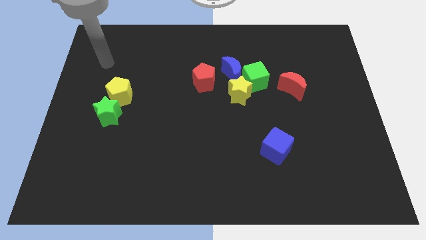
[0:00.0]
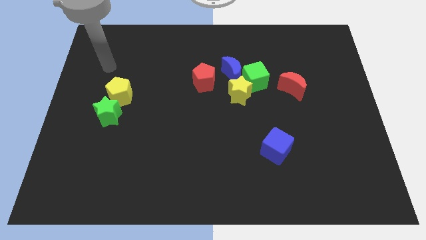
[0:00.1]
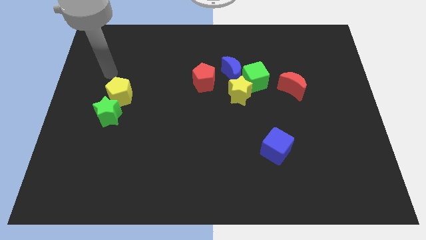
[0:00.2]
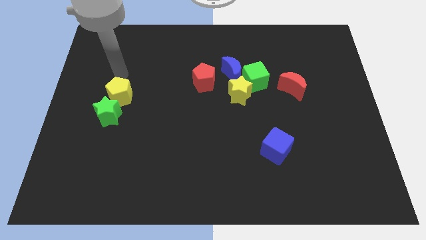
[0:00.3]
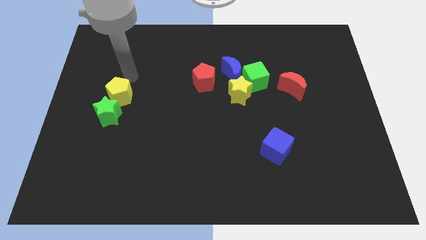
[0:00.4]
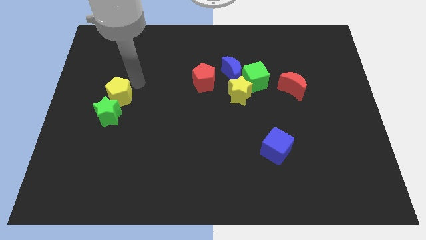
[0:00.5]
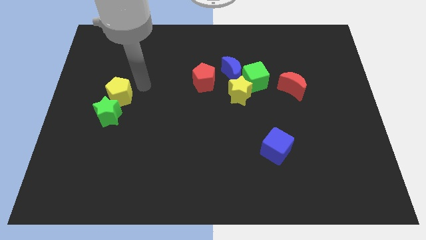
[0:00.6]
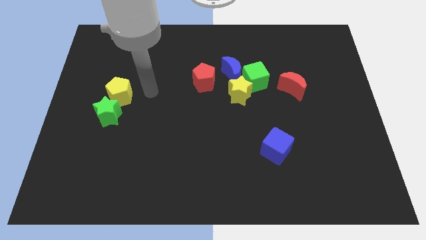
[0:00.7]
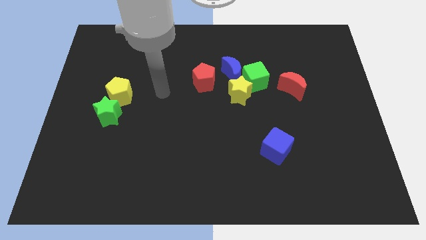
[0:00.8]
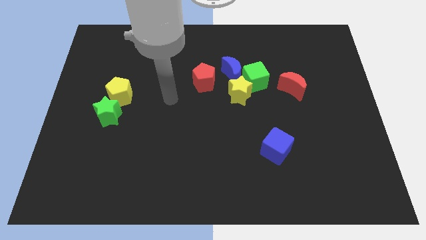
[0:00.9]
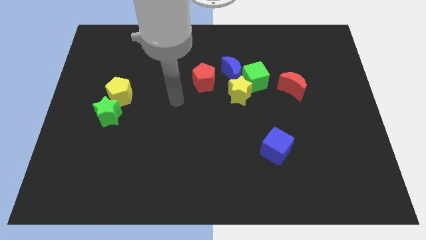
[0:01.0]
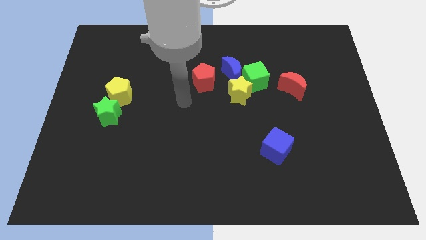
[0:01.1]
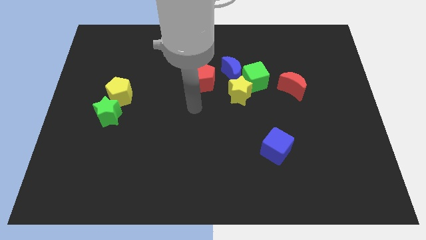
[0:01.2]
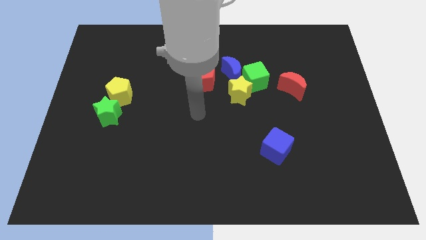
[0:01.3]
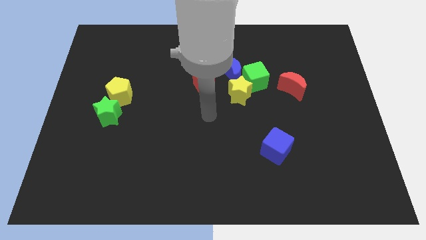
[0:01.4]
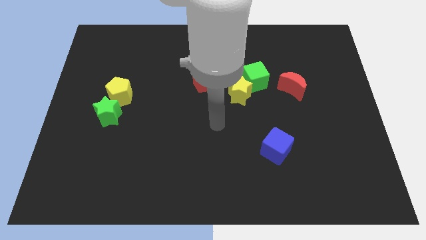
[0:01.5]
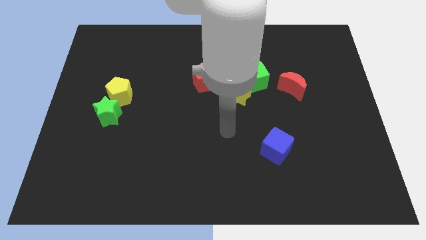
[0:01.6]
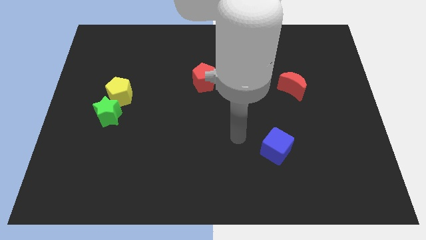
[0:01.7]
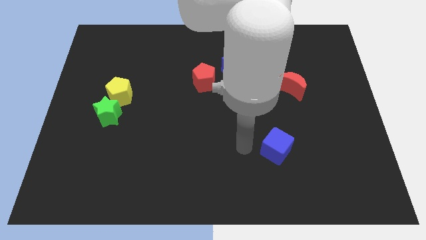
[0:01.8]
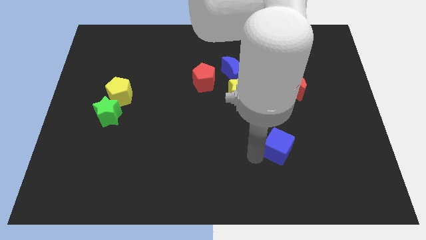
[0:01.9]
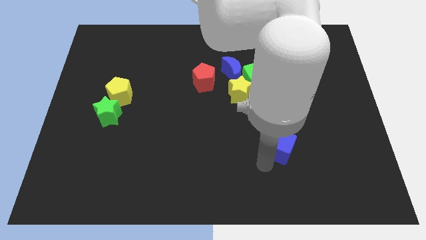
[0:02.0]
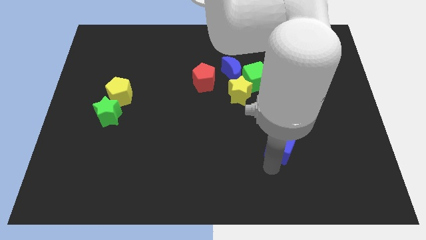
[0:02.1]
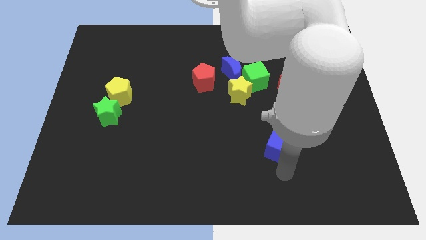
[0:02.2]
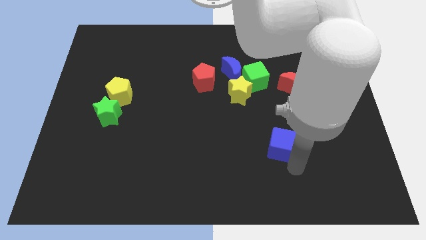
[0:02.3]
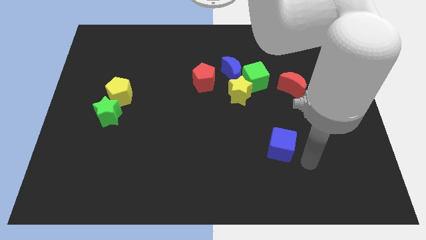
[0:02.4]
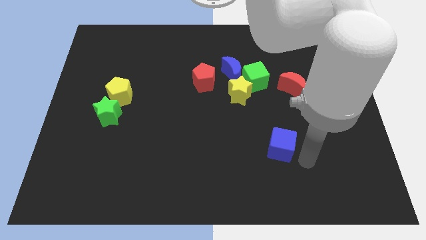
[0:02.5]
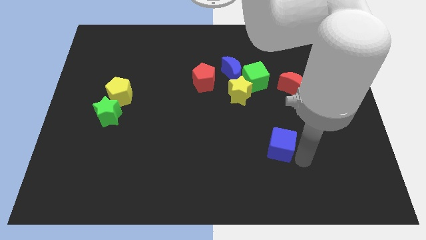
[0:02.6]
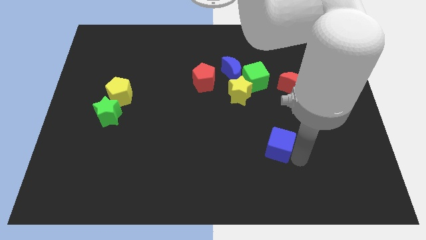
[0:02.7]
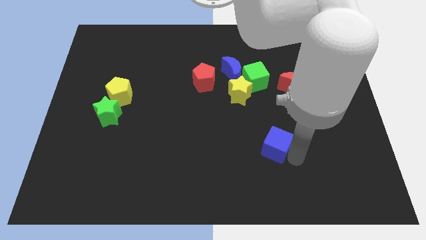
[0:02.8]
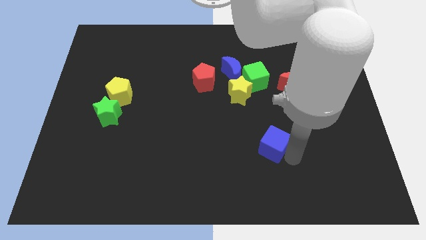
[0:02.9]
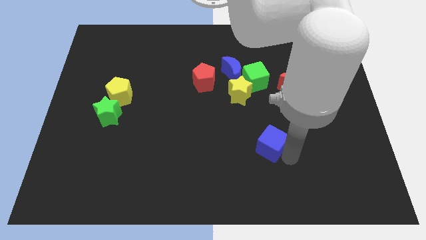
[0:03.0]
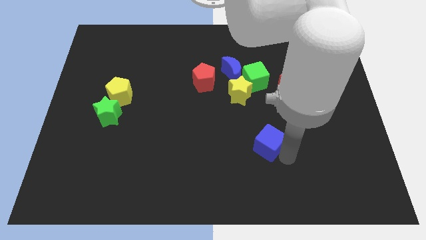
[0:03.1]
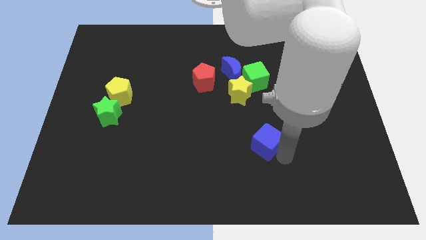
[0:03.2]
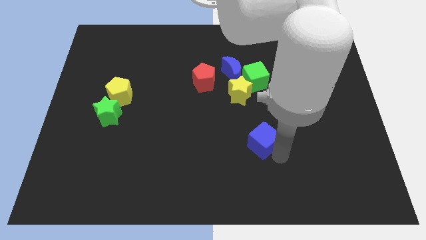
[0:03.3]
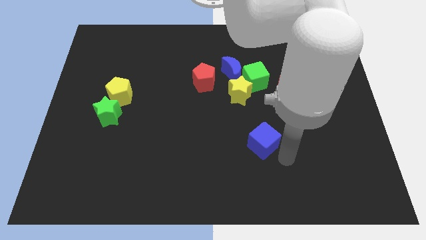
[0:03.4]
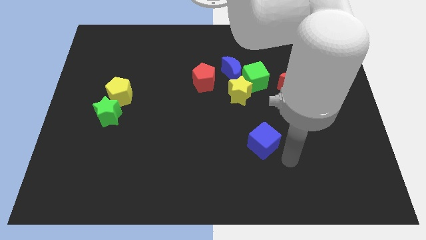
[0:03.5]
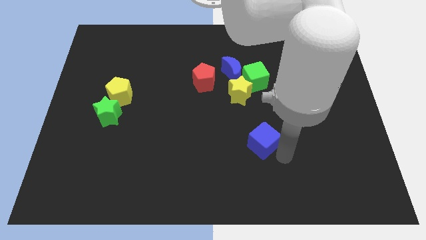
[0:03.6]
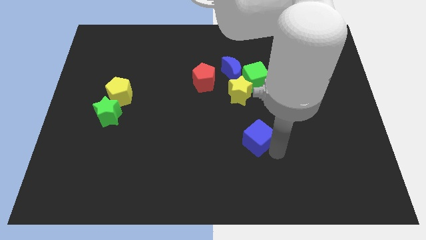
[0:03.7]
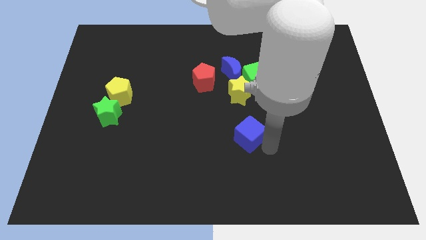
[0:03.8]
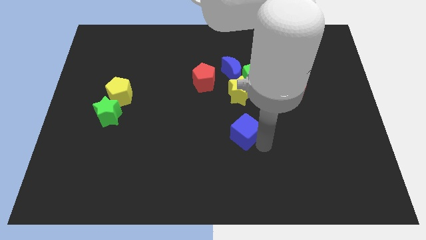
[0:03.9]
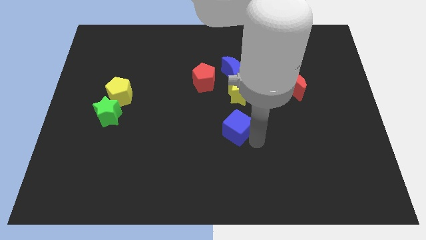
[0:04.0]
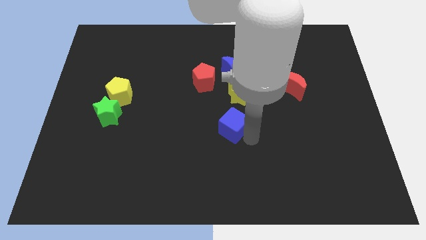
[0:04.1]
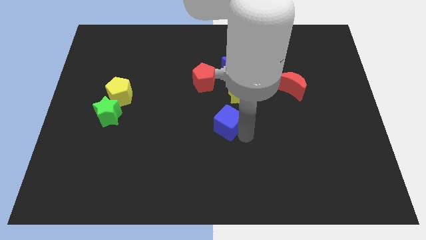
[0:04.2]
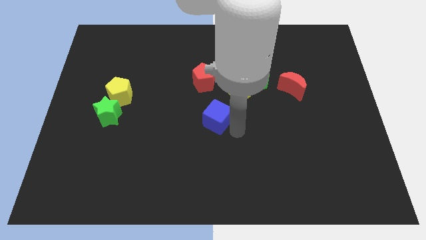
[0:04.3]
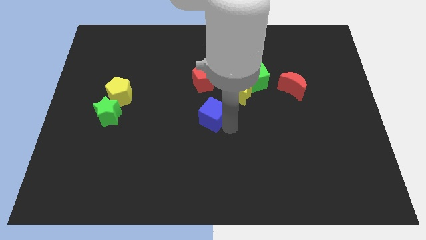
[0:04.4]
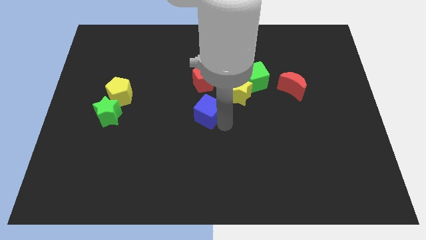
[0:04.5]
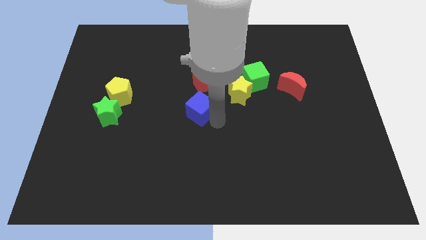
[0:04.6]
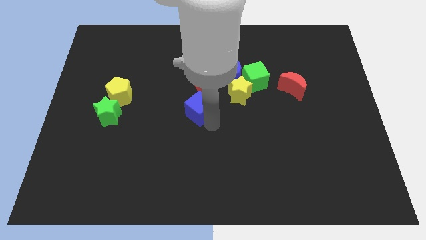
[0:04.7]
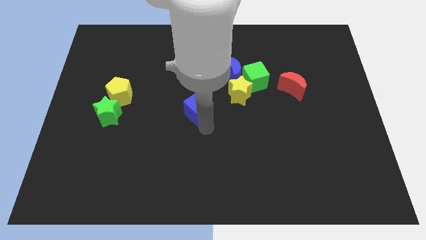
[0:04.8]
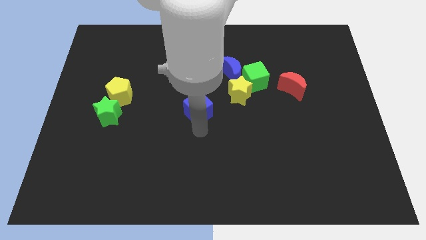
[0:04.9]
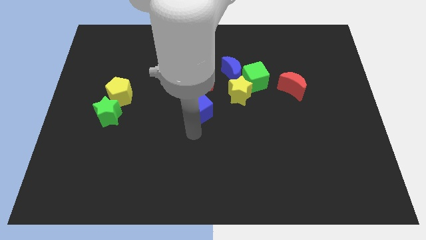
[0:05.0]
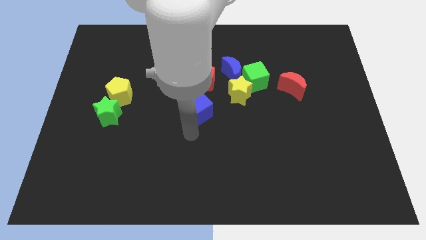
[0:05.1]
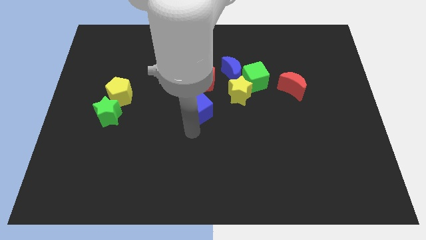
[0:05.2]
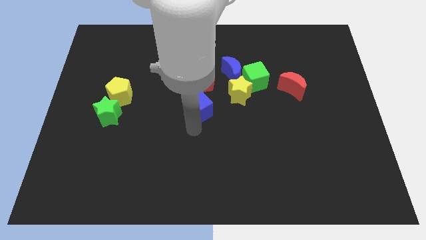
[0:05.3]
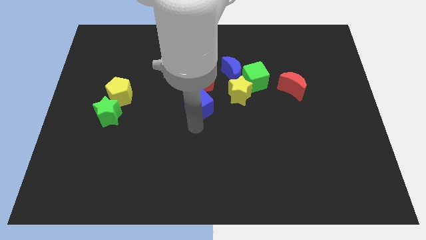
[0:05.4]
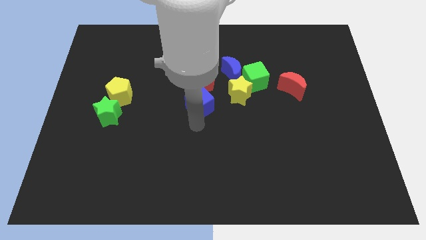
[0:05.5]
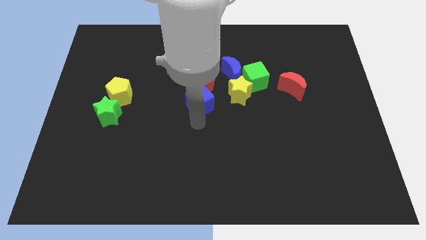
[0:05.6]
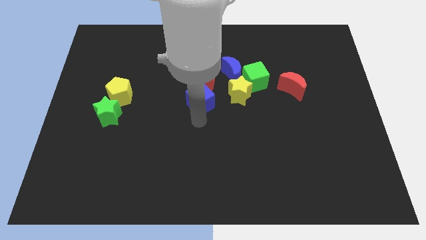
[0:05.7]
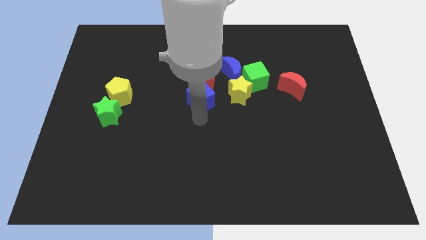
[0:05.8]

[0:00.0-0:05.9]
slide the blue cube towards the red pentagon

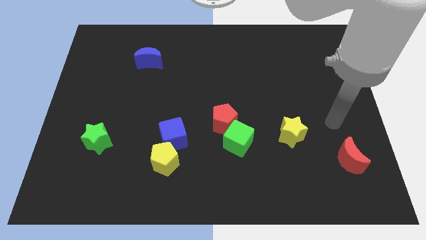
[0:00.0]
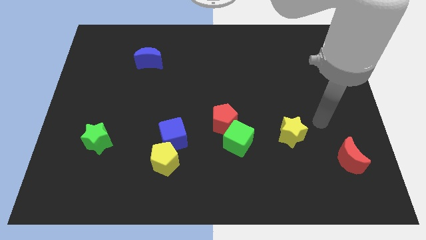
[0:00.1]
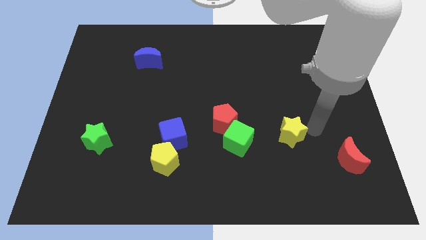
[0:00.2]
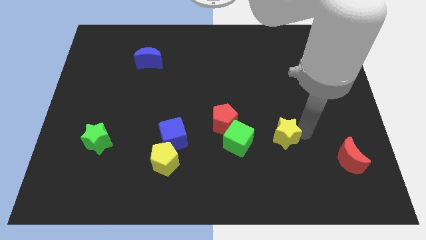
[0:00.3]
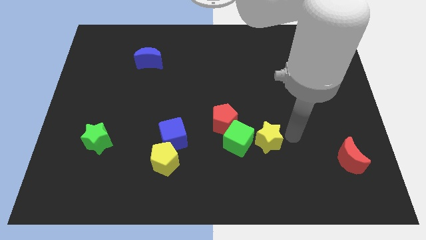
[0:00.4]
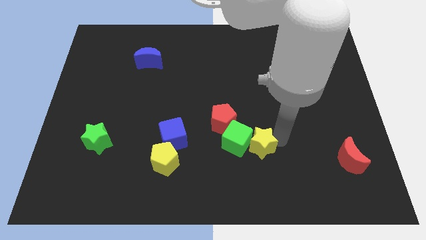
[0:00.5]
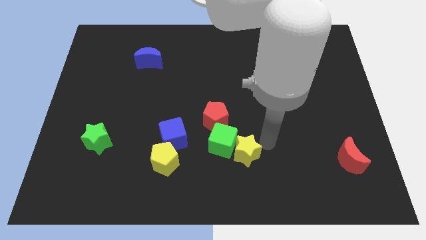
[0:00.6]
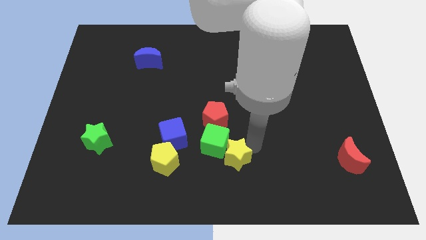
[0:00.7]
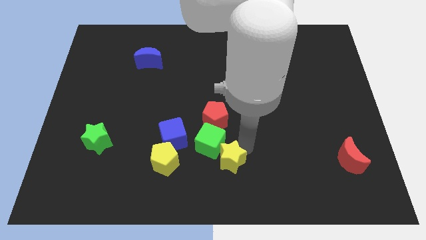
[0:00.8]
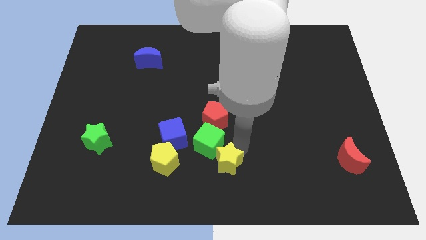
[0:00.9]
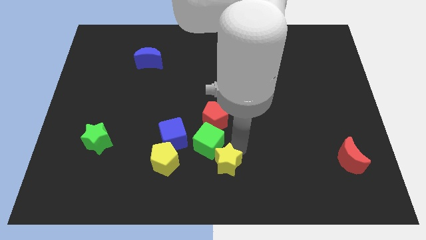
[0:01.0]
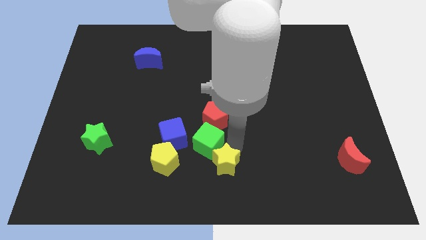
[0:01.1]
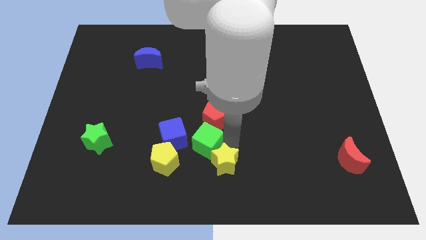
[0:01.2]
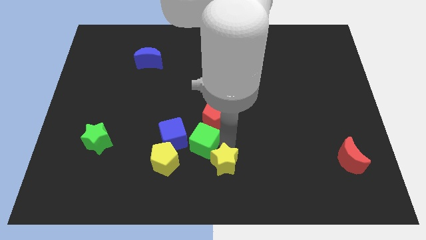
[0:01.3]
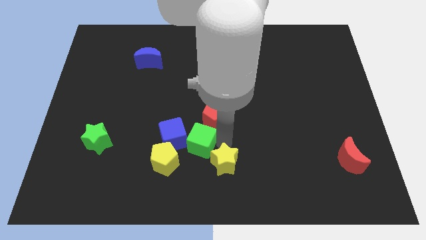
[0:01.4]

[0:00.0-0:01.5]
move the green cube close to the blue cube

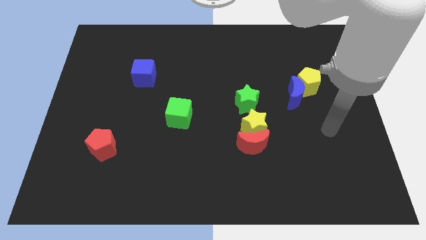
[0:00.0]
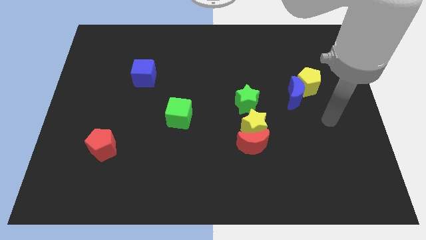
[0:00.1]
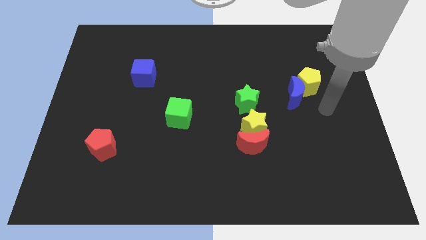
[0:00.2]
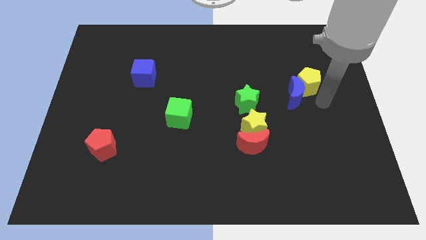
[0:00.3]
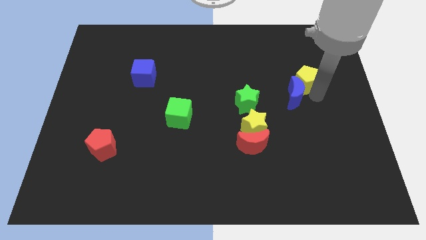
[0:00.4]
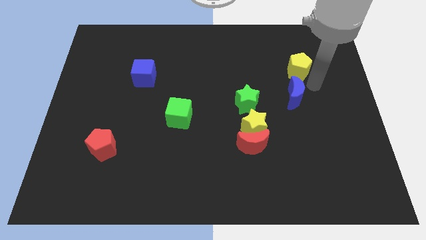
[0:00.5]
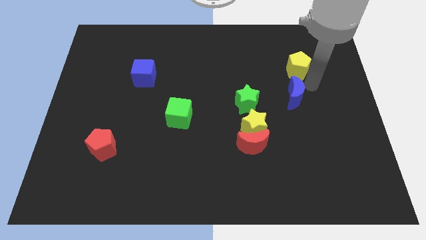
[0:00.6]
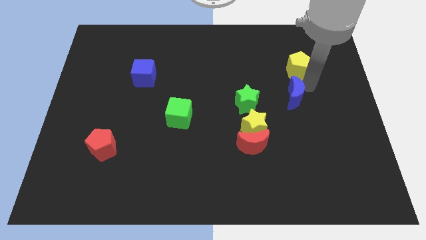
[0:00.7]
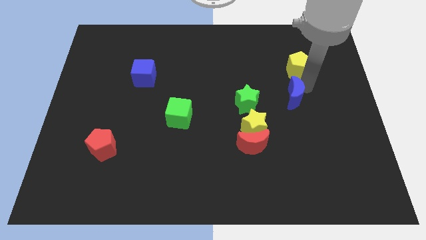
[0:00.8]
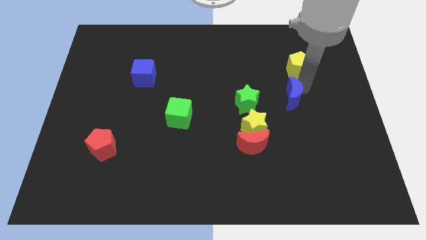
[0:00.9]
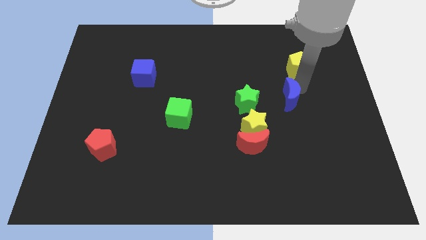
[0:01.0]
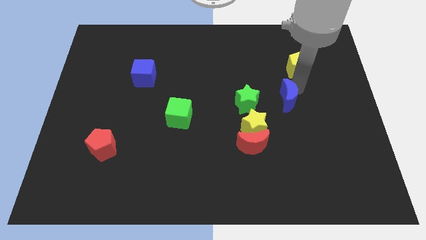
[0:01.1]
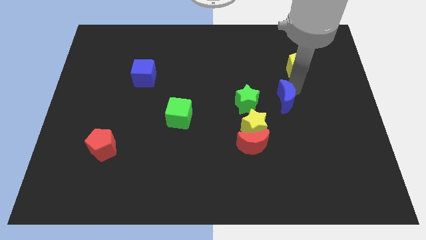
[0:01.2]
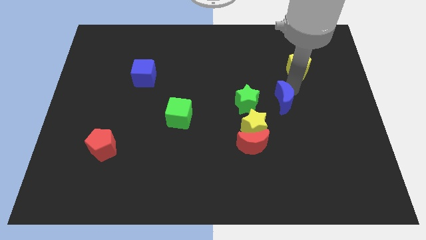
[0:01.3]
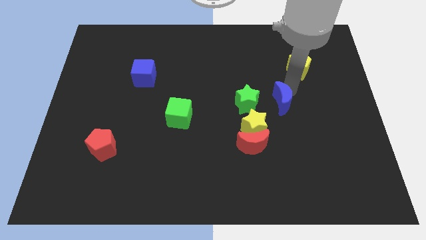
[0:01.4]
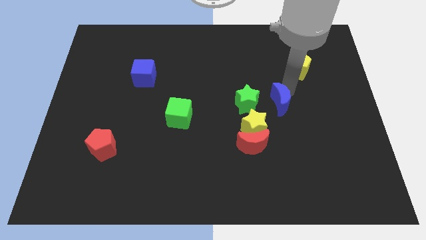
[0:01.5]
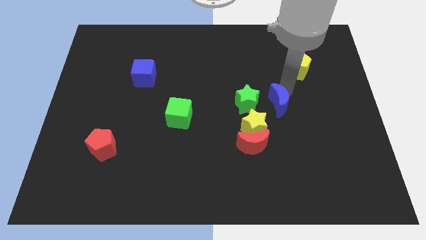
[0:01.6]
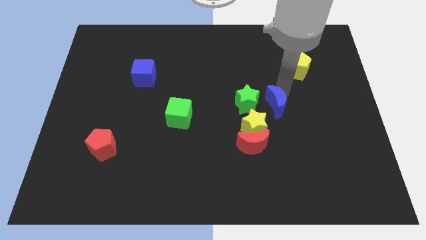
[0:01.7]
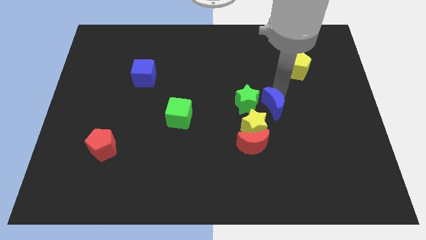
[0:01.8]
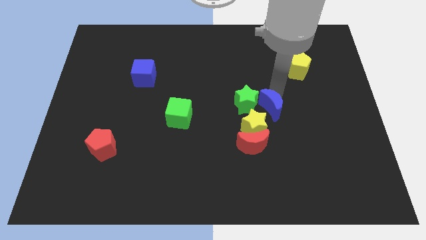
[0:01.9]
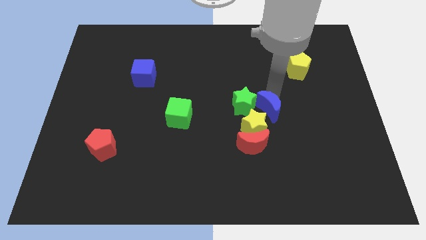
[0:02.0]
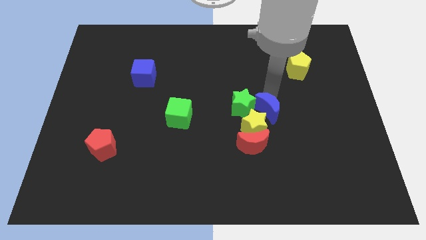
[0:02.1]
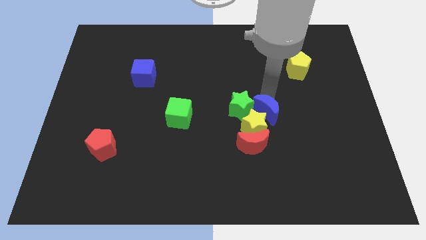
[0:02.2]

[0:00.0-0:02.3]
slide the blue moon to the yellow star
